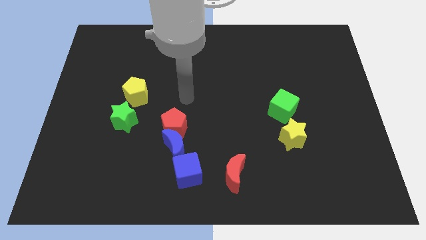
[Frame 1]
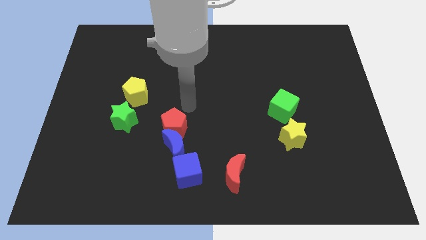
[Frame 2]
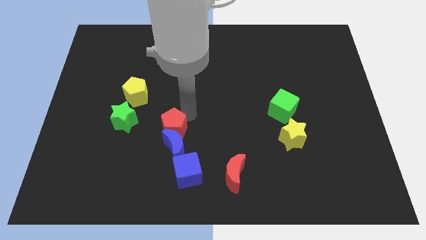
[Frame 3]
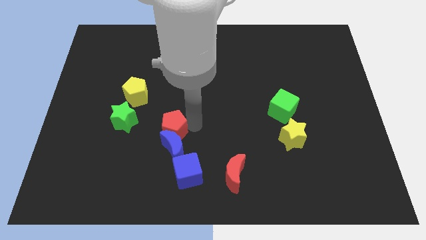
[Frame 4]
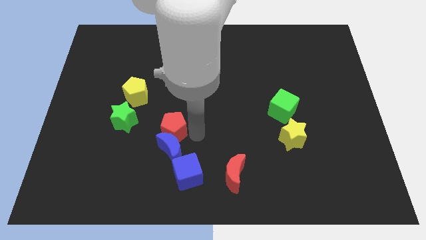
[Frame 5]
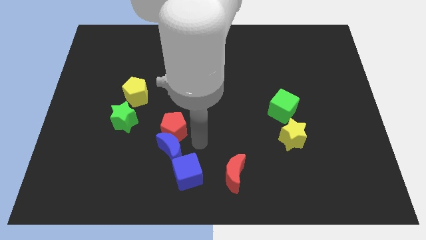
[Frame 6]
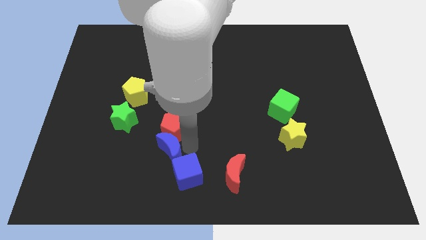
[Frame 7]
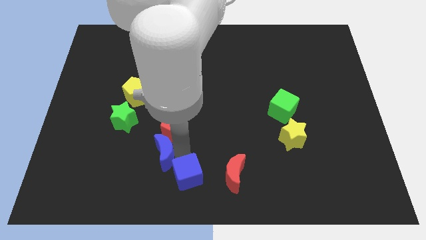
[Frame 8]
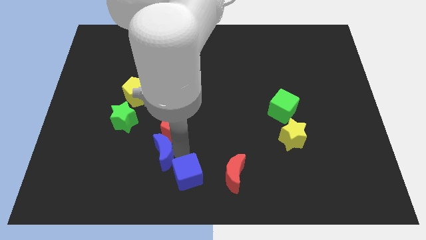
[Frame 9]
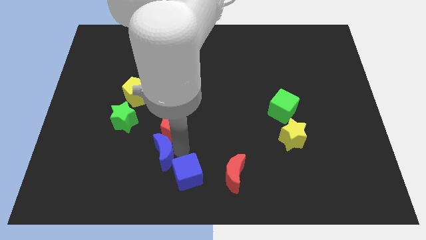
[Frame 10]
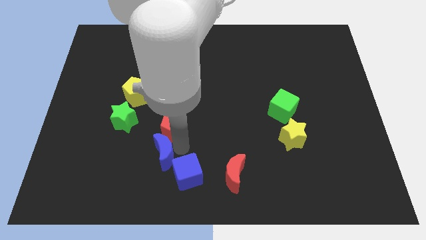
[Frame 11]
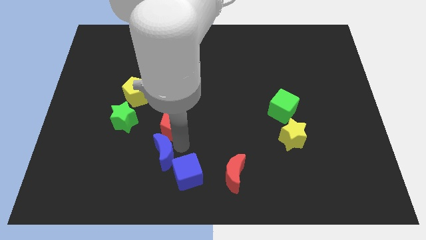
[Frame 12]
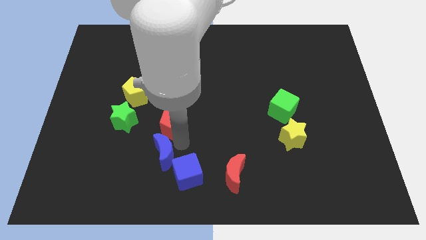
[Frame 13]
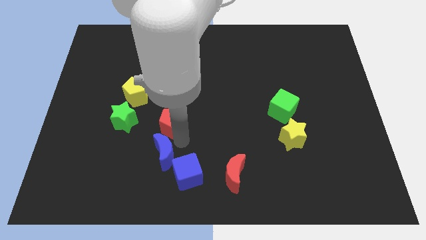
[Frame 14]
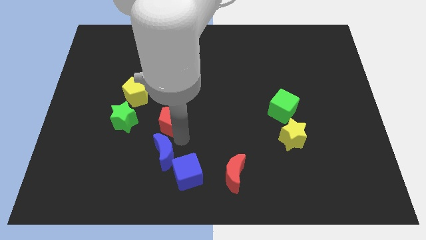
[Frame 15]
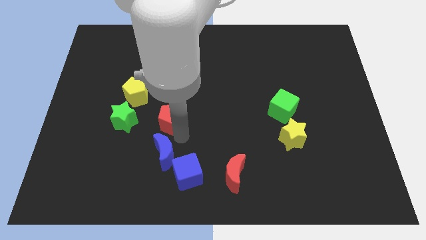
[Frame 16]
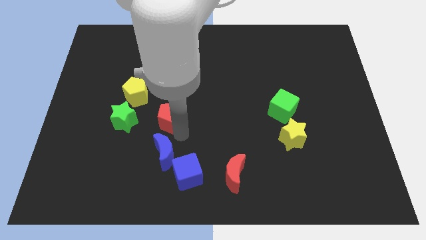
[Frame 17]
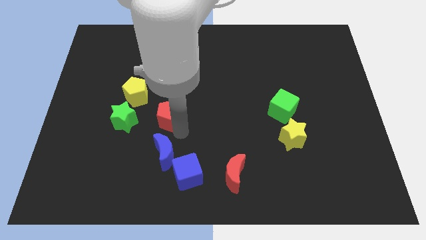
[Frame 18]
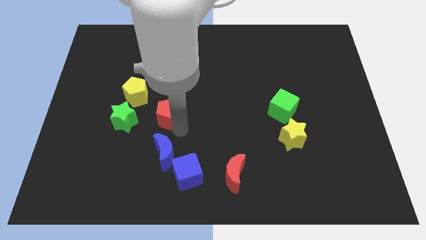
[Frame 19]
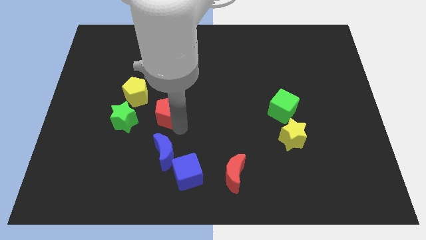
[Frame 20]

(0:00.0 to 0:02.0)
pull the red pentagon apart from the blue moon

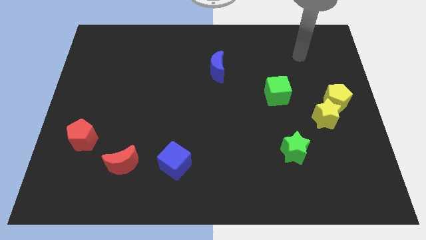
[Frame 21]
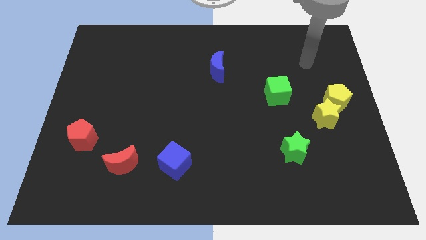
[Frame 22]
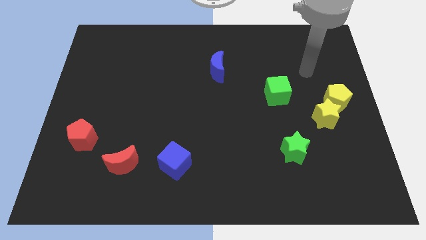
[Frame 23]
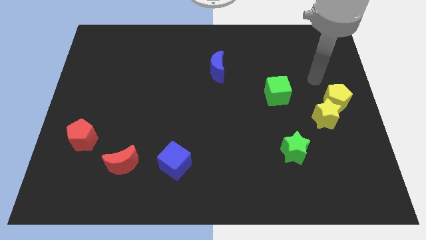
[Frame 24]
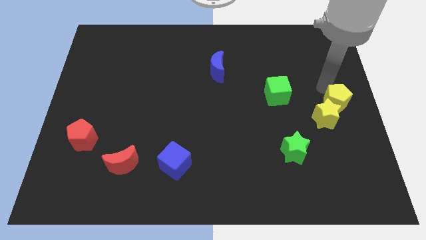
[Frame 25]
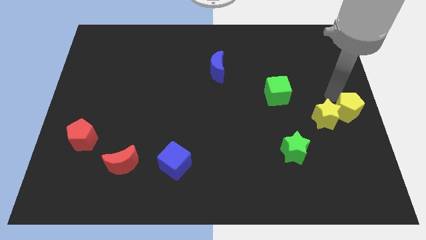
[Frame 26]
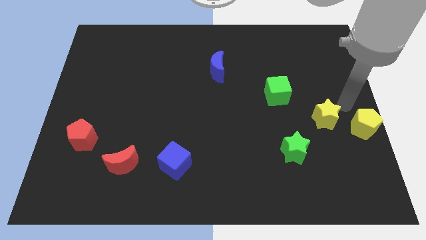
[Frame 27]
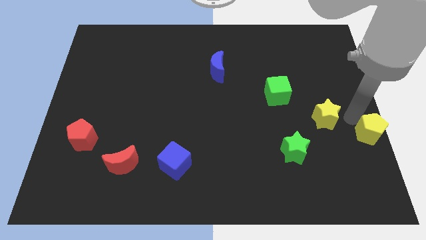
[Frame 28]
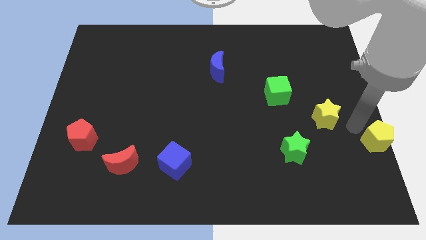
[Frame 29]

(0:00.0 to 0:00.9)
separate the yellow star from the yellow pentagon

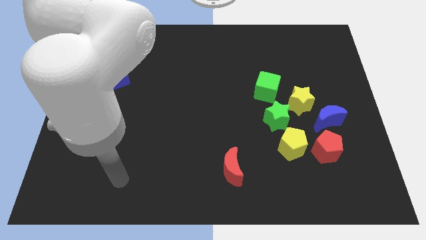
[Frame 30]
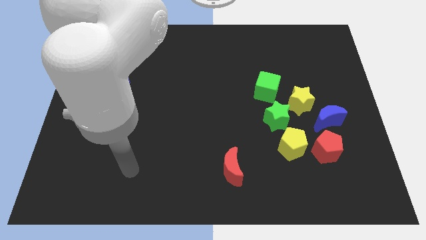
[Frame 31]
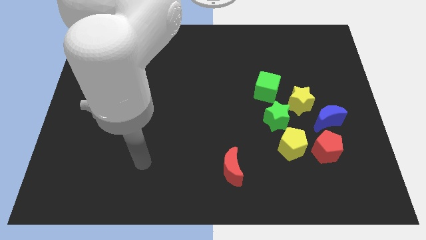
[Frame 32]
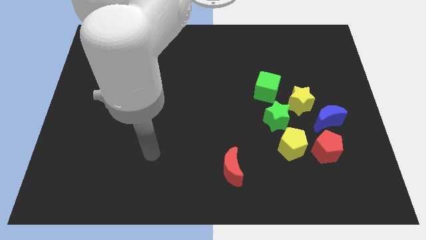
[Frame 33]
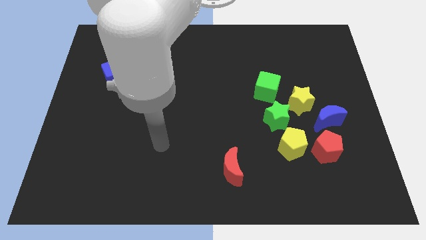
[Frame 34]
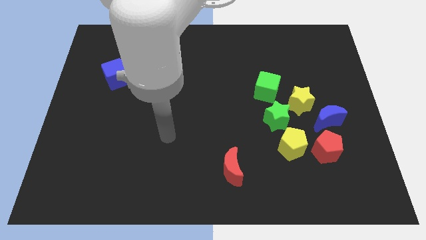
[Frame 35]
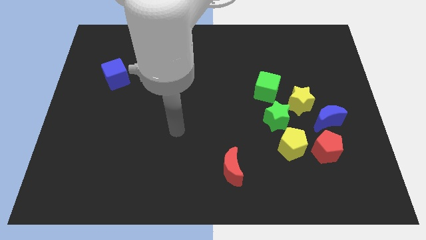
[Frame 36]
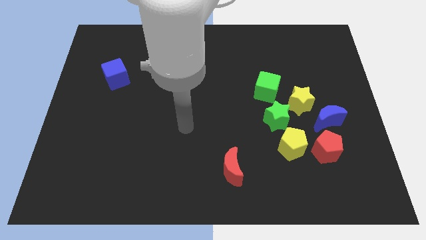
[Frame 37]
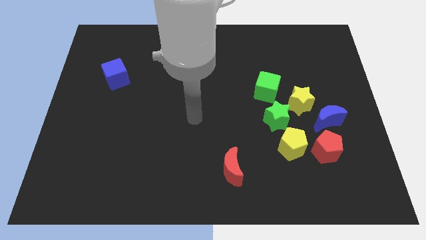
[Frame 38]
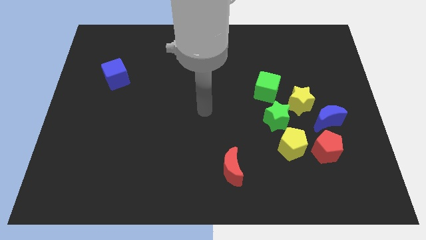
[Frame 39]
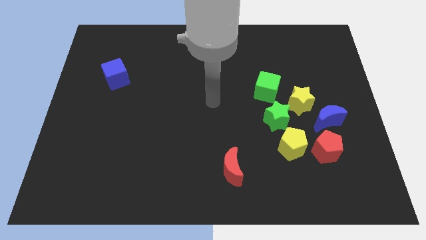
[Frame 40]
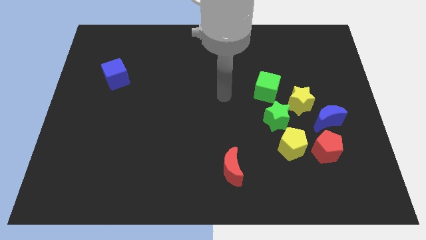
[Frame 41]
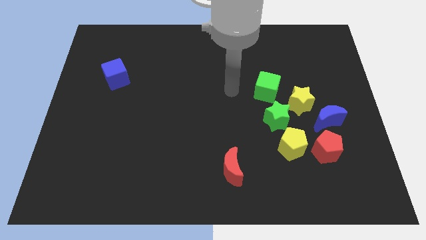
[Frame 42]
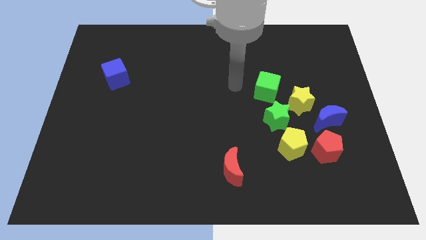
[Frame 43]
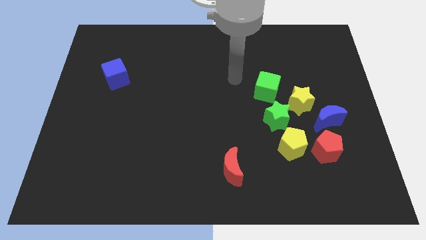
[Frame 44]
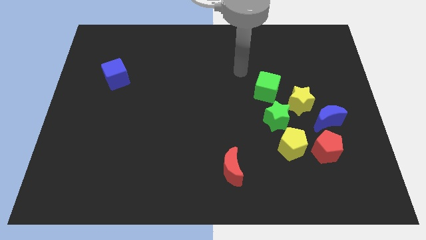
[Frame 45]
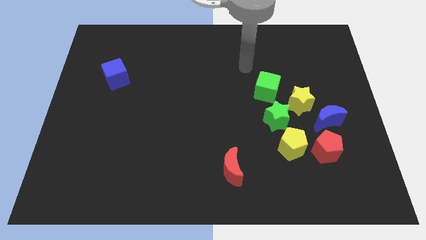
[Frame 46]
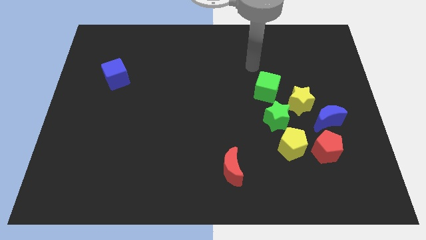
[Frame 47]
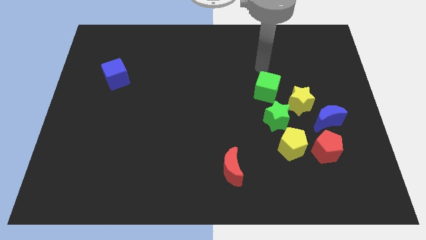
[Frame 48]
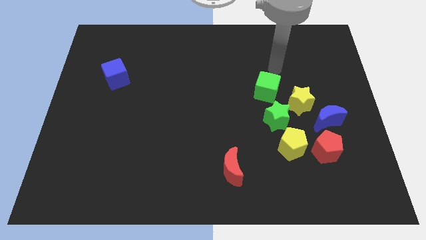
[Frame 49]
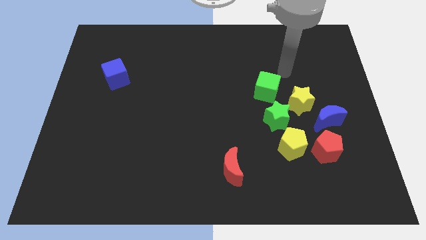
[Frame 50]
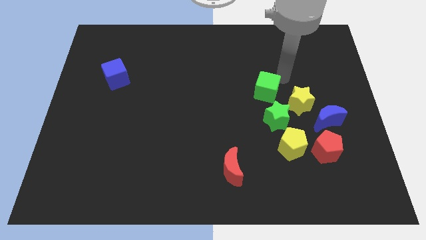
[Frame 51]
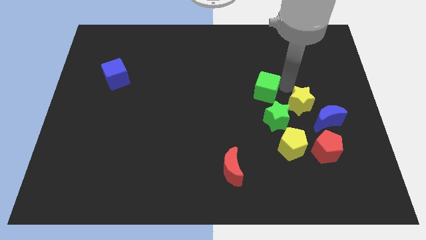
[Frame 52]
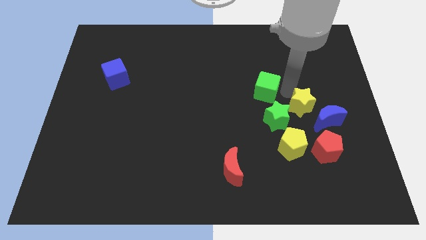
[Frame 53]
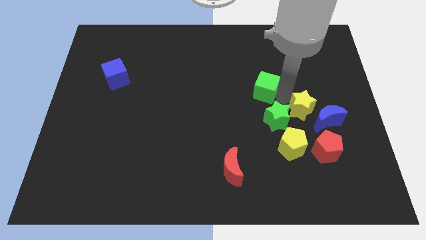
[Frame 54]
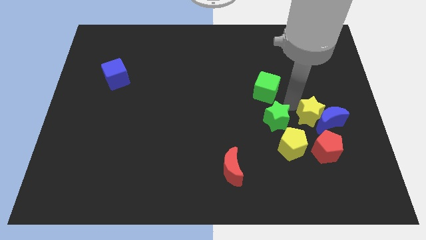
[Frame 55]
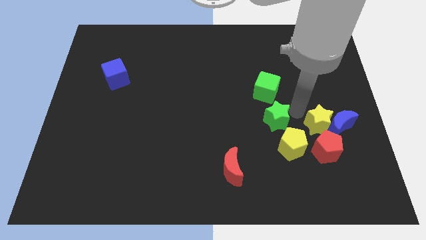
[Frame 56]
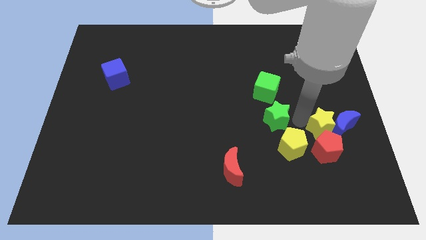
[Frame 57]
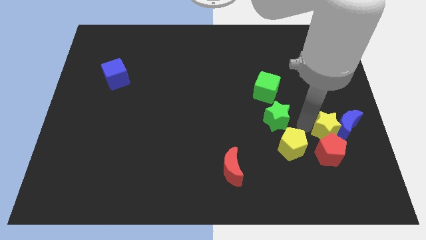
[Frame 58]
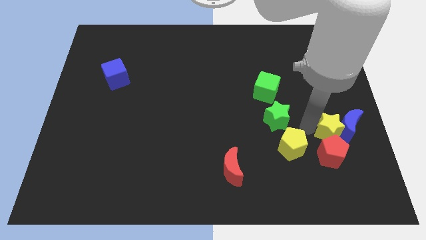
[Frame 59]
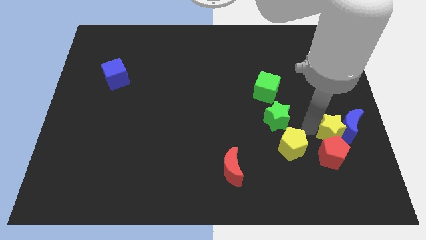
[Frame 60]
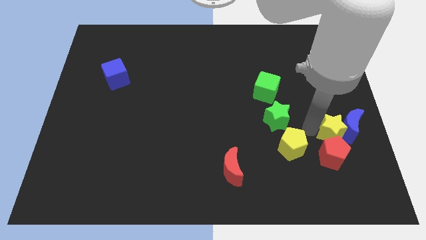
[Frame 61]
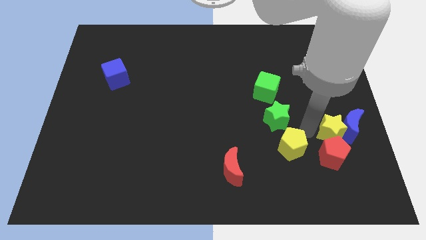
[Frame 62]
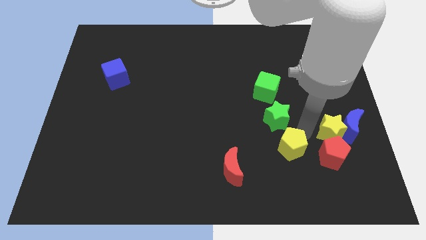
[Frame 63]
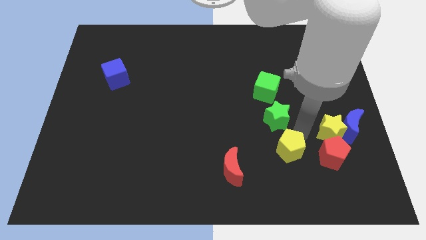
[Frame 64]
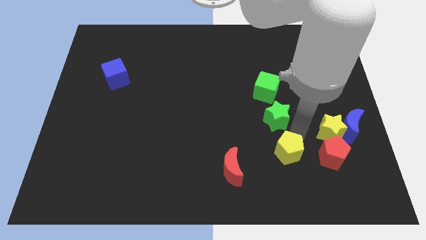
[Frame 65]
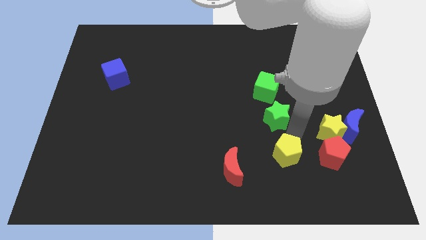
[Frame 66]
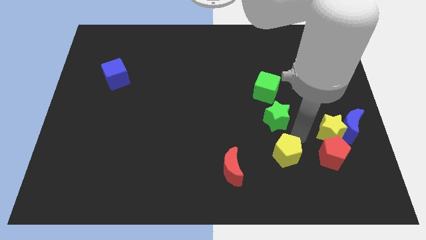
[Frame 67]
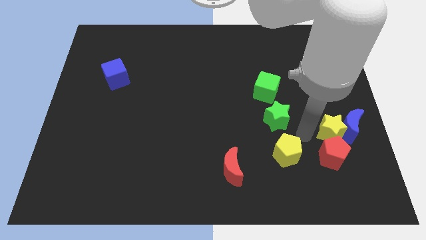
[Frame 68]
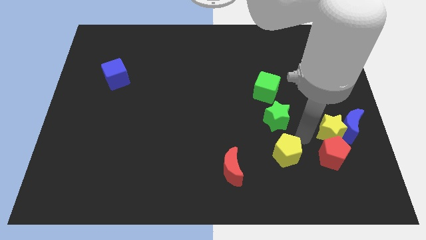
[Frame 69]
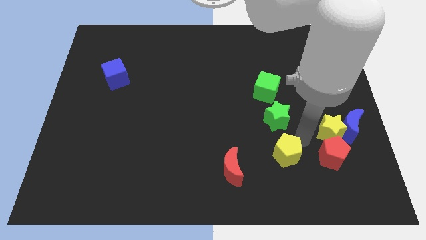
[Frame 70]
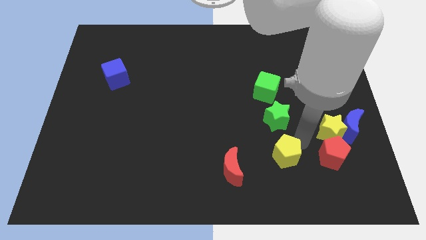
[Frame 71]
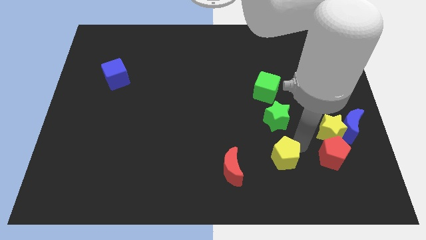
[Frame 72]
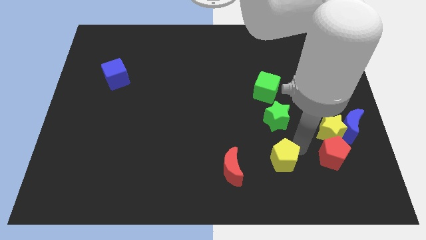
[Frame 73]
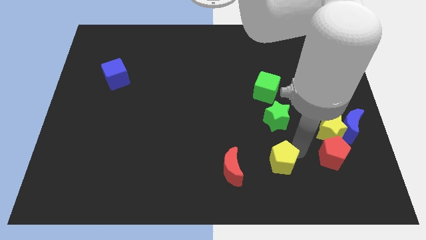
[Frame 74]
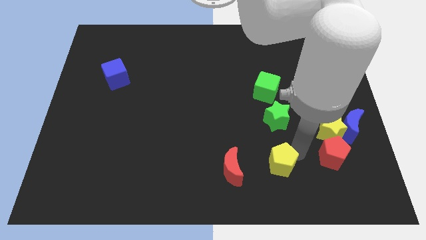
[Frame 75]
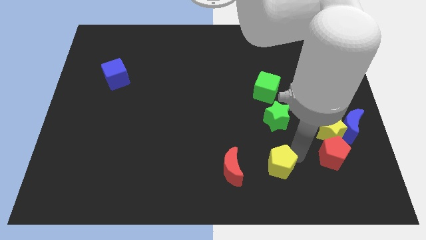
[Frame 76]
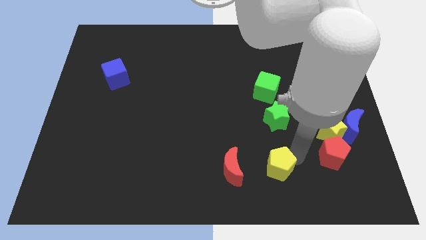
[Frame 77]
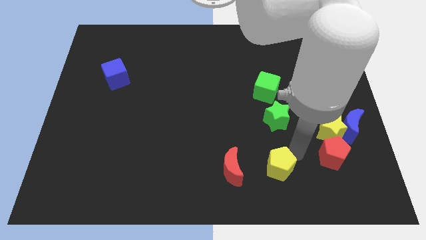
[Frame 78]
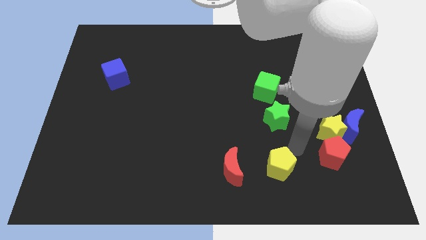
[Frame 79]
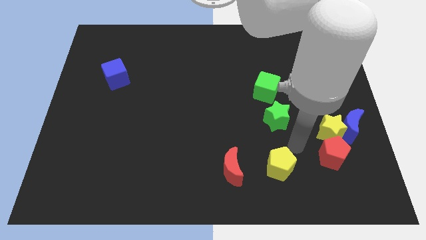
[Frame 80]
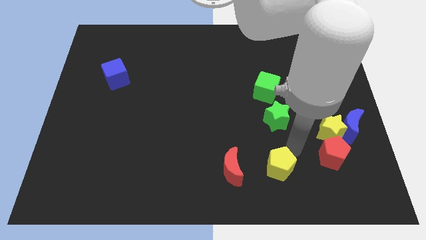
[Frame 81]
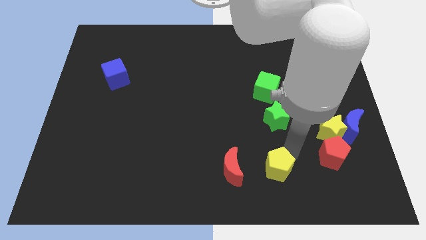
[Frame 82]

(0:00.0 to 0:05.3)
move the yellow pentagon away from the red pentagon and green star

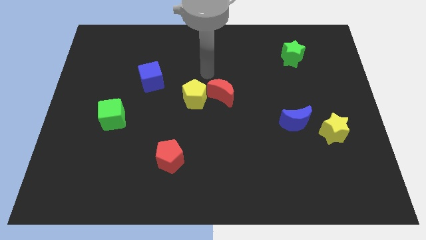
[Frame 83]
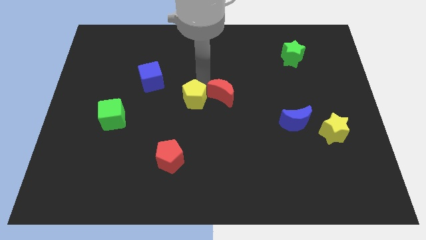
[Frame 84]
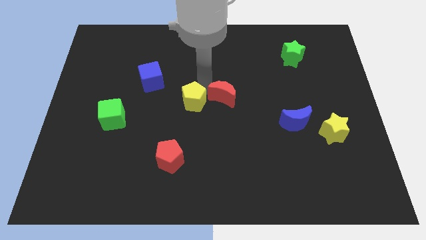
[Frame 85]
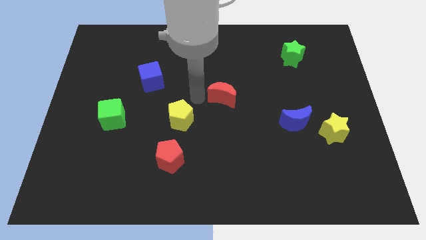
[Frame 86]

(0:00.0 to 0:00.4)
separate the red moon from the yellow pentagon

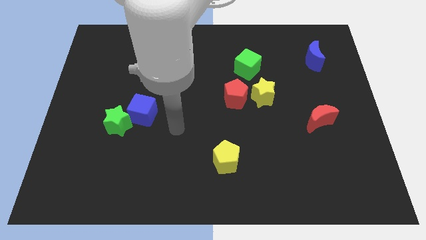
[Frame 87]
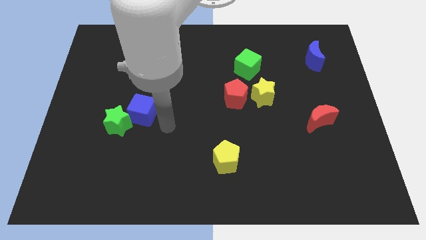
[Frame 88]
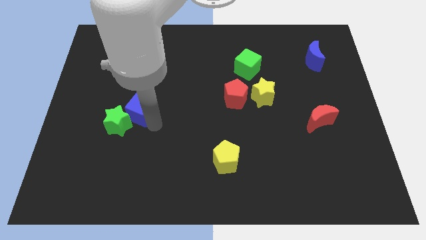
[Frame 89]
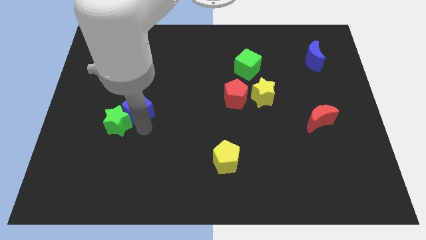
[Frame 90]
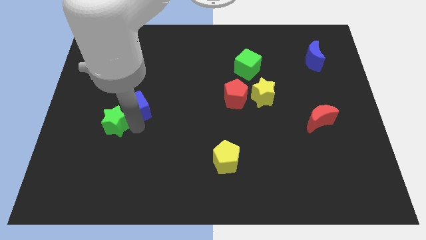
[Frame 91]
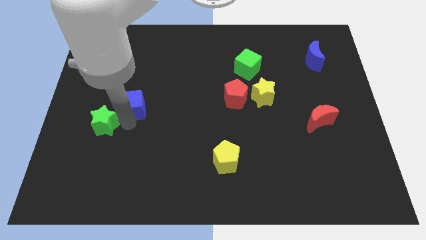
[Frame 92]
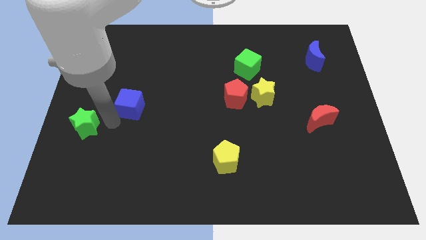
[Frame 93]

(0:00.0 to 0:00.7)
pull the blue cube apart from the green star

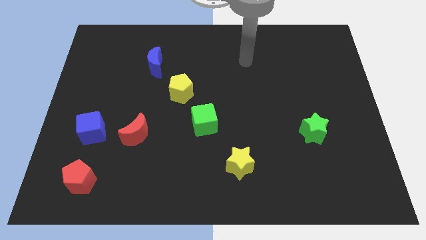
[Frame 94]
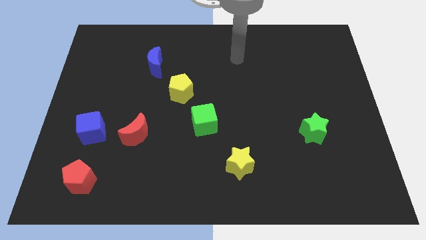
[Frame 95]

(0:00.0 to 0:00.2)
move the red moon away from the blue cube
